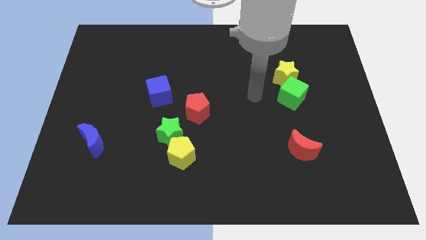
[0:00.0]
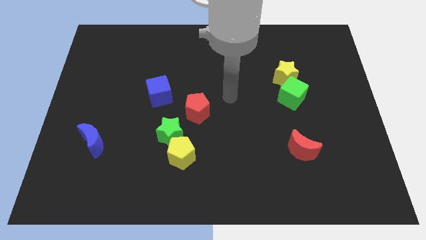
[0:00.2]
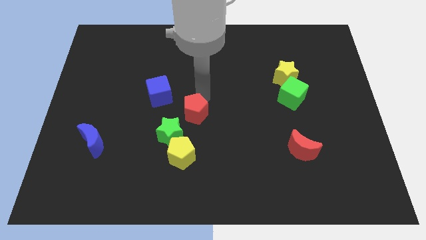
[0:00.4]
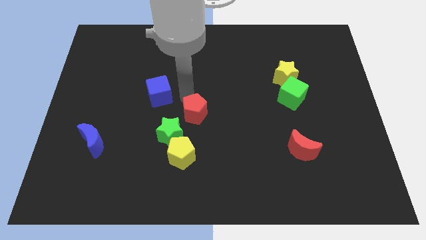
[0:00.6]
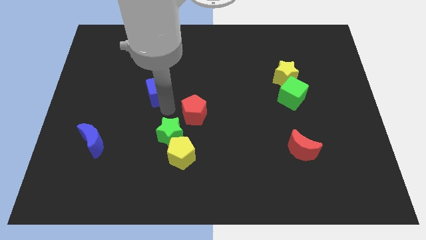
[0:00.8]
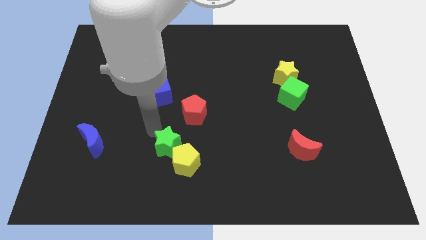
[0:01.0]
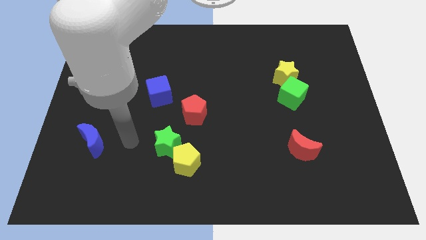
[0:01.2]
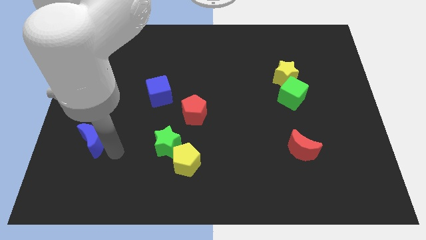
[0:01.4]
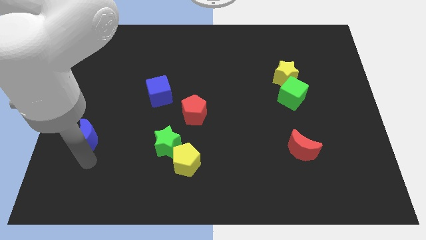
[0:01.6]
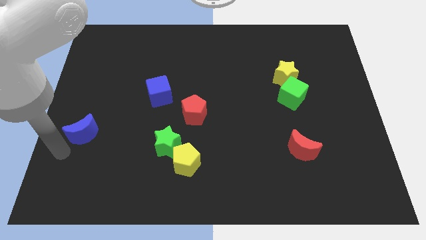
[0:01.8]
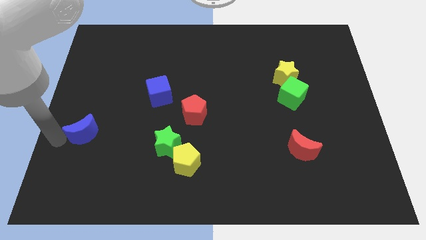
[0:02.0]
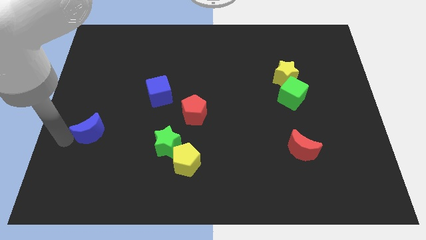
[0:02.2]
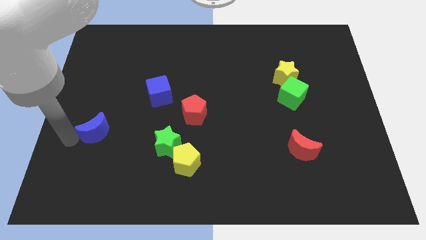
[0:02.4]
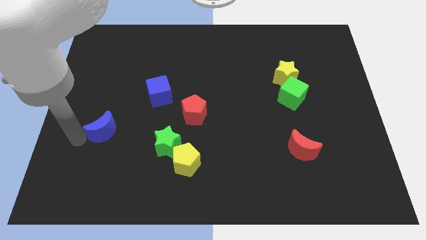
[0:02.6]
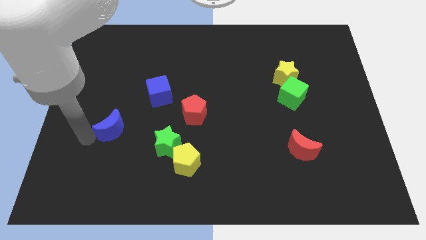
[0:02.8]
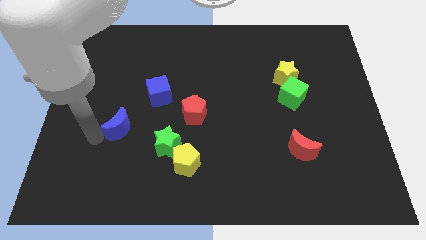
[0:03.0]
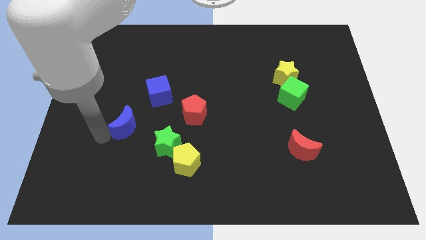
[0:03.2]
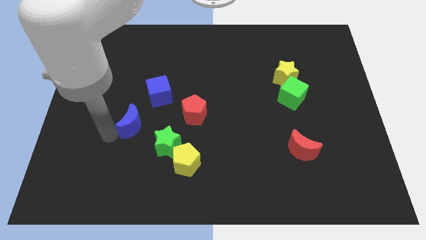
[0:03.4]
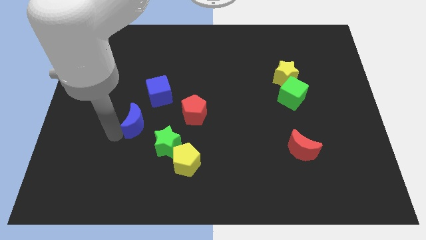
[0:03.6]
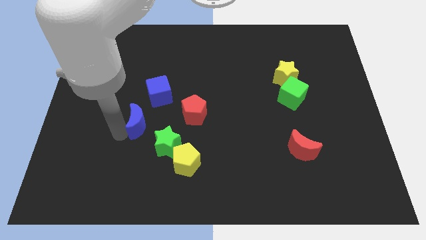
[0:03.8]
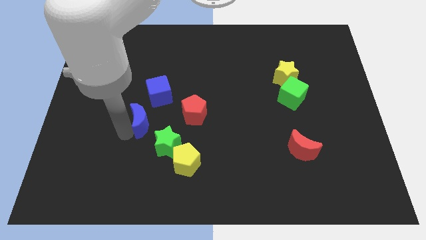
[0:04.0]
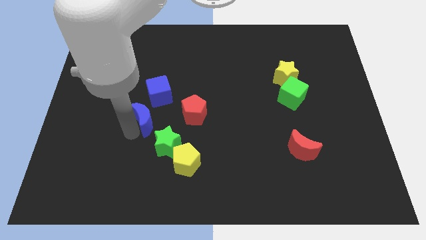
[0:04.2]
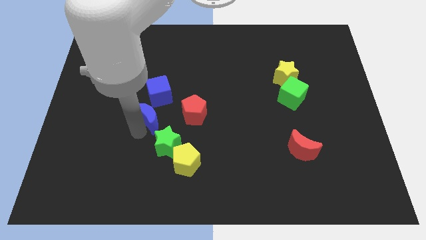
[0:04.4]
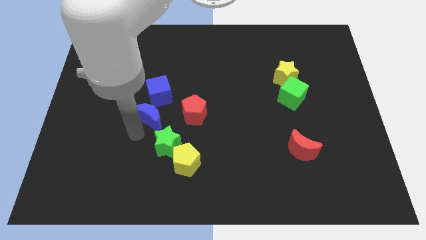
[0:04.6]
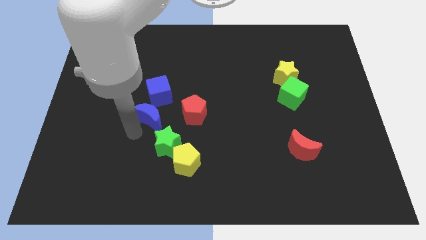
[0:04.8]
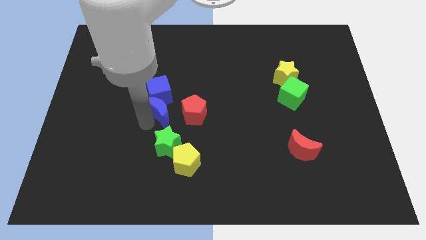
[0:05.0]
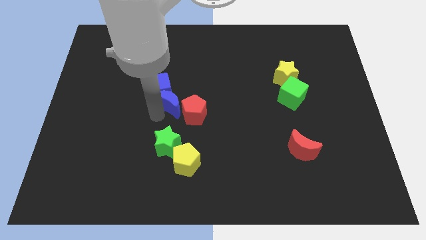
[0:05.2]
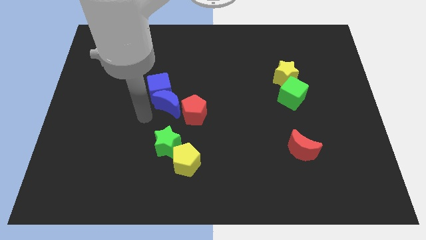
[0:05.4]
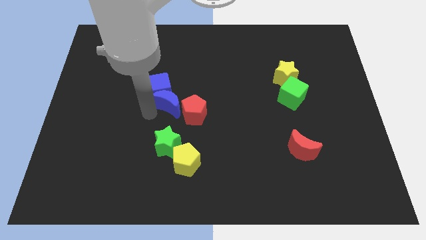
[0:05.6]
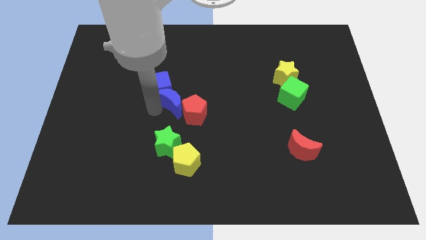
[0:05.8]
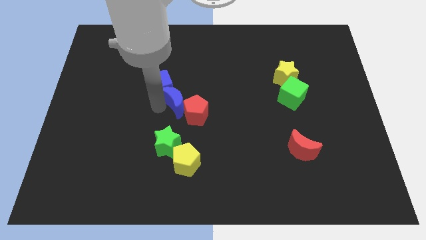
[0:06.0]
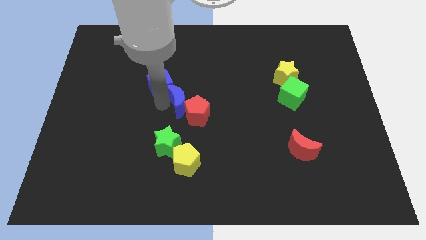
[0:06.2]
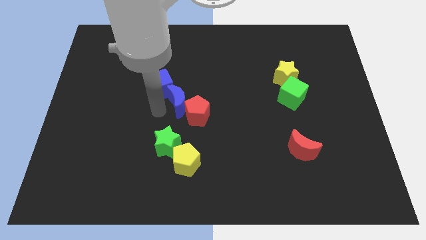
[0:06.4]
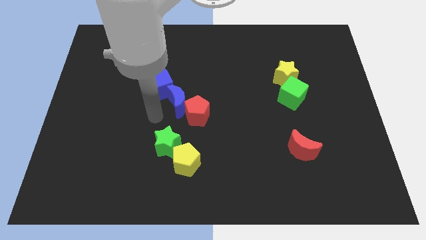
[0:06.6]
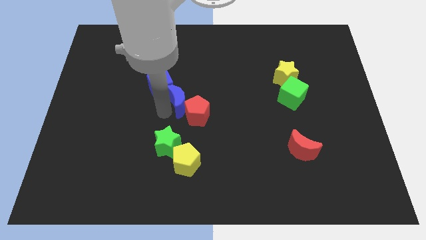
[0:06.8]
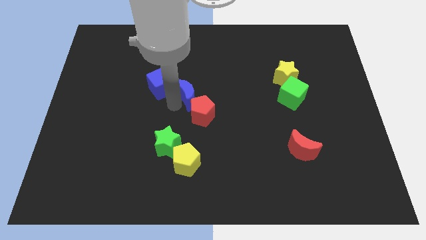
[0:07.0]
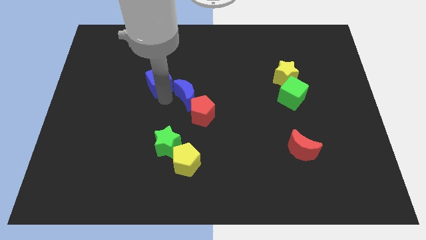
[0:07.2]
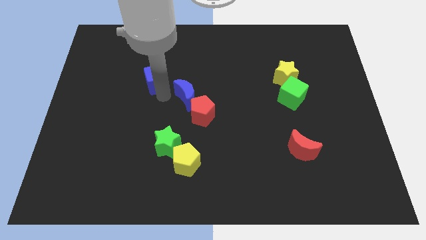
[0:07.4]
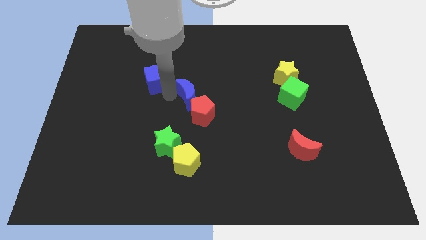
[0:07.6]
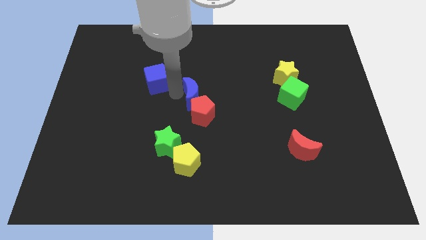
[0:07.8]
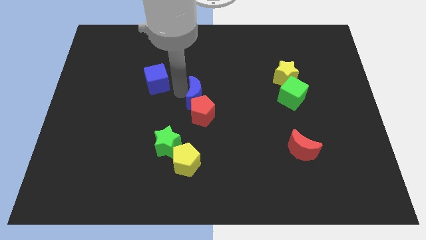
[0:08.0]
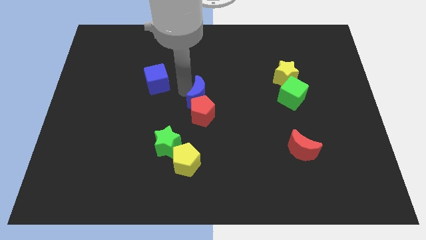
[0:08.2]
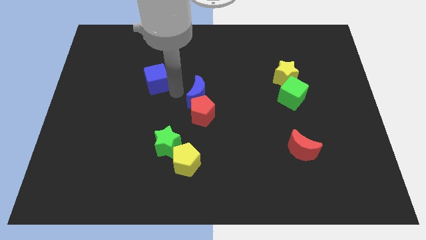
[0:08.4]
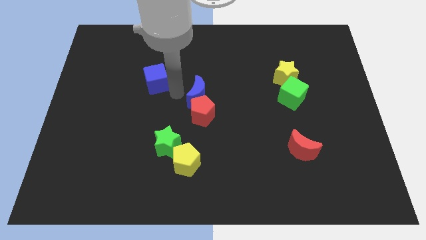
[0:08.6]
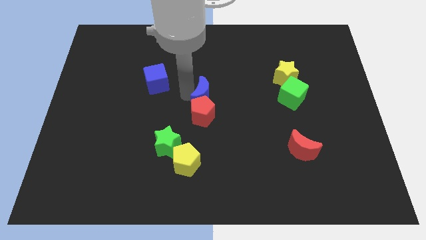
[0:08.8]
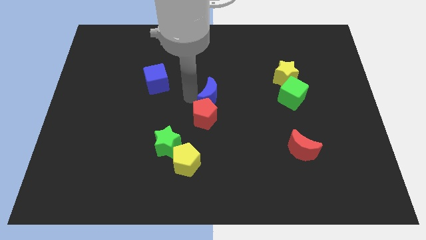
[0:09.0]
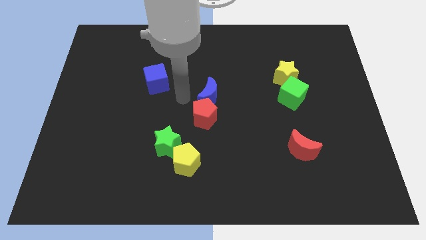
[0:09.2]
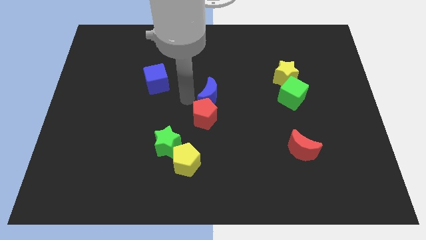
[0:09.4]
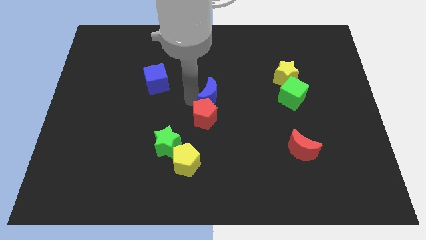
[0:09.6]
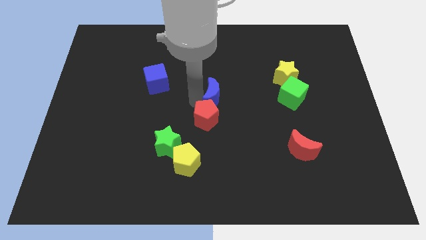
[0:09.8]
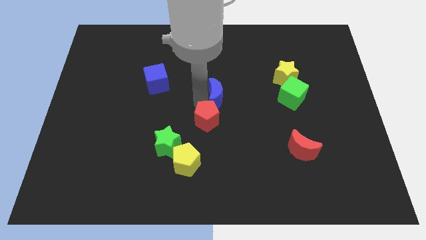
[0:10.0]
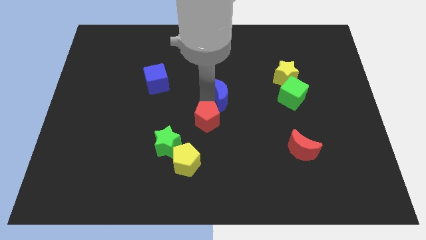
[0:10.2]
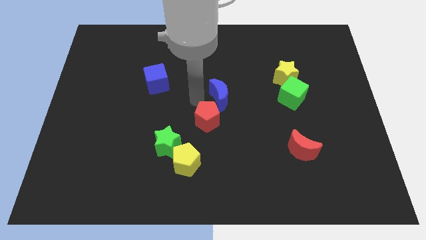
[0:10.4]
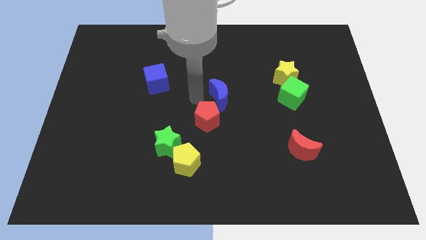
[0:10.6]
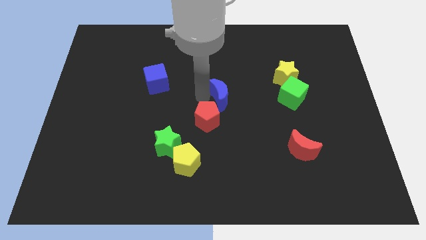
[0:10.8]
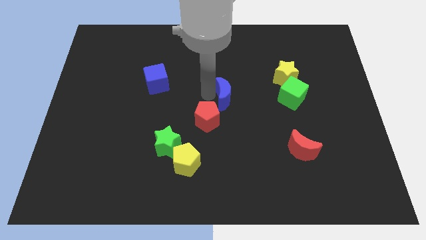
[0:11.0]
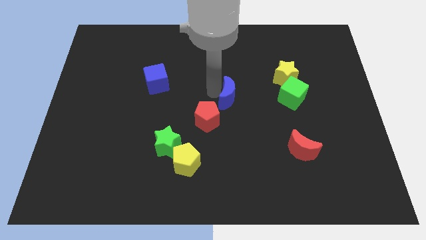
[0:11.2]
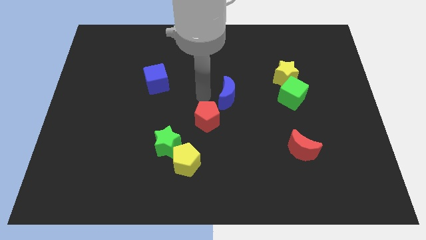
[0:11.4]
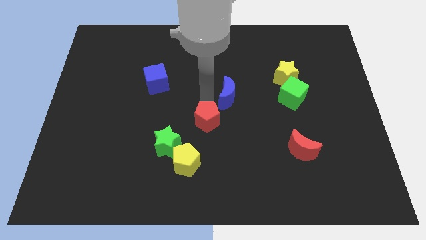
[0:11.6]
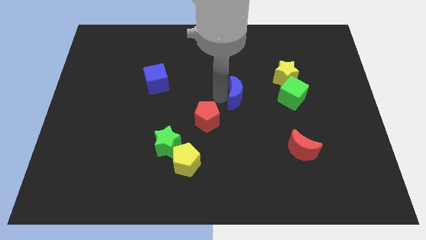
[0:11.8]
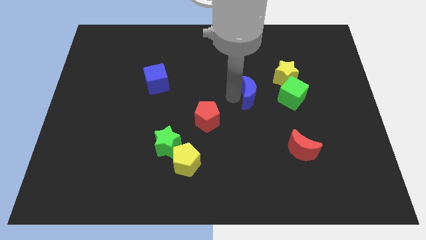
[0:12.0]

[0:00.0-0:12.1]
slide the blue moon to the bottom left side of the yellow star
